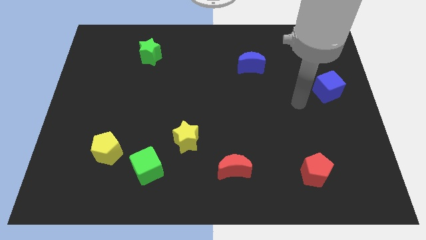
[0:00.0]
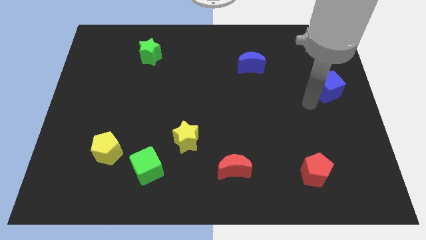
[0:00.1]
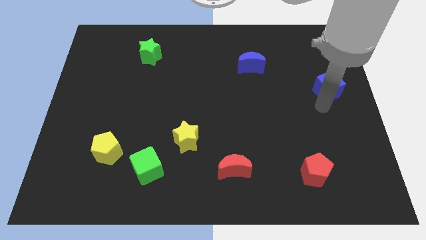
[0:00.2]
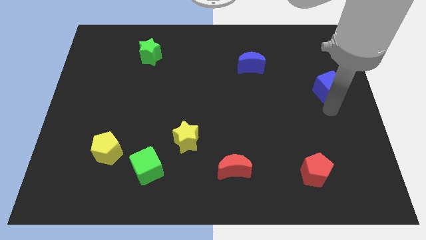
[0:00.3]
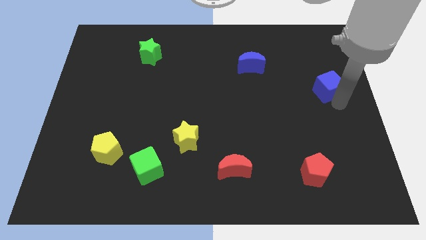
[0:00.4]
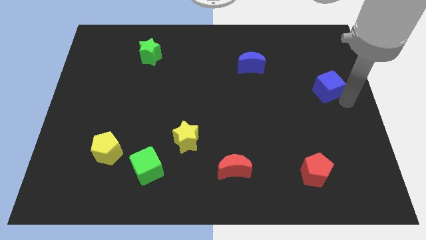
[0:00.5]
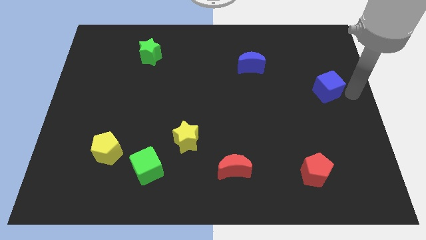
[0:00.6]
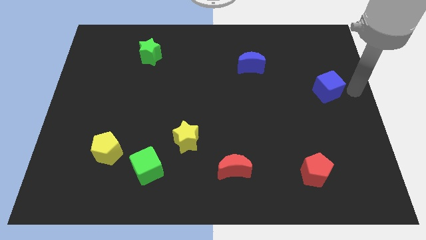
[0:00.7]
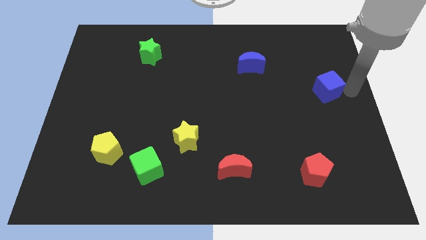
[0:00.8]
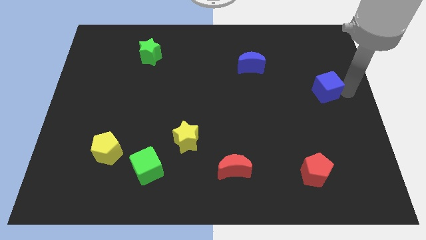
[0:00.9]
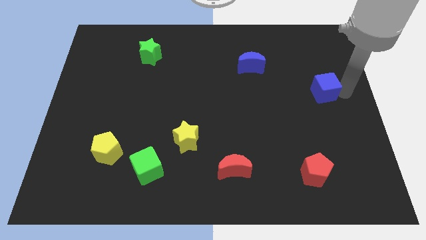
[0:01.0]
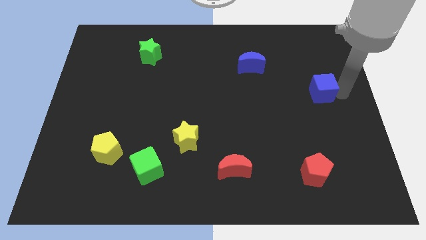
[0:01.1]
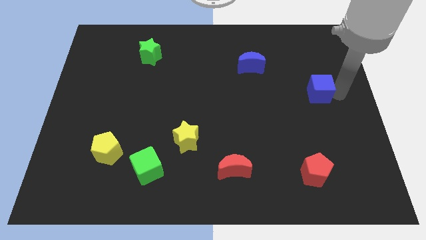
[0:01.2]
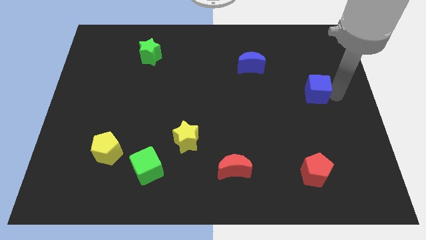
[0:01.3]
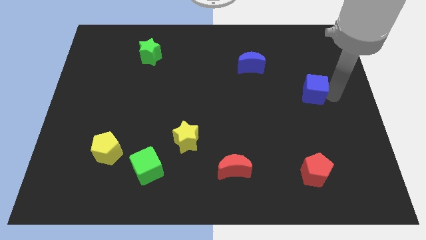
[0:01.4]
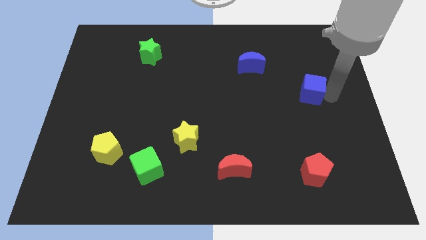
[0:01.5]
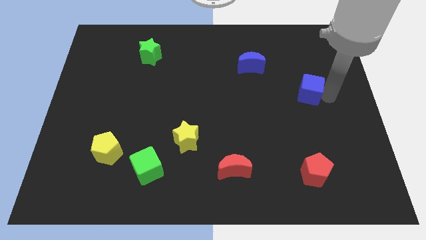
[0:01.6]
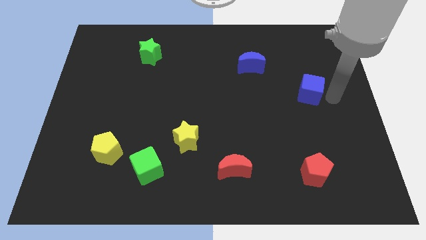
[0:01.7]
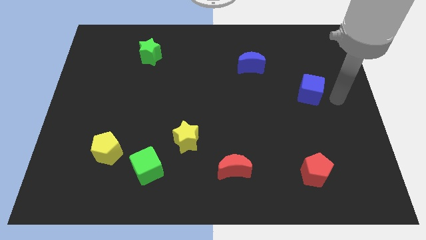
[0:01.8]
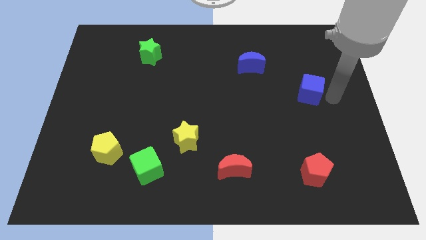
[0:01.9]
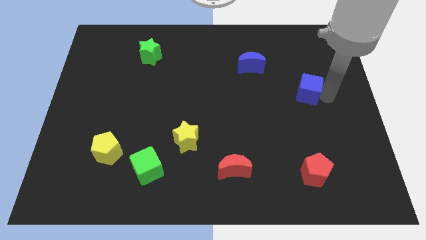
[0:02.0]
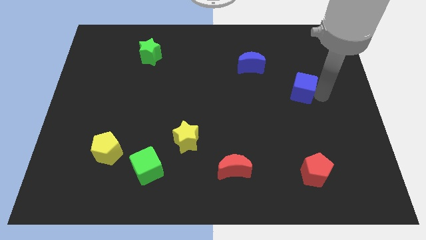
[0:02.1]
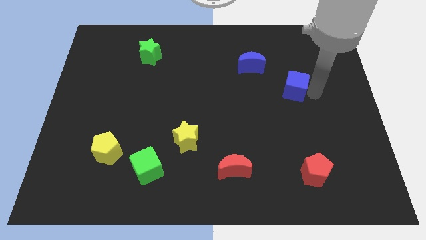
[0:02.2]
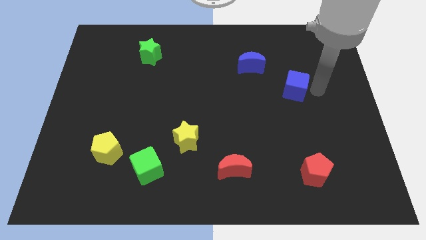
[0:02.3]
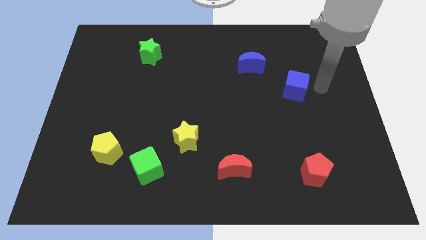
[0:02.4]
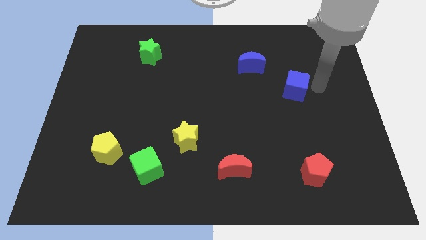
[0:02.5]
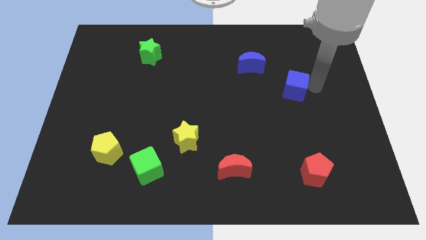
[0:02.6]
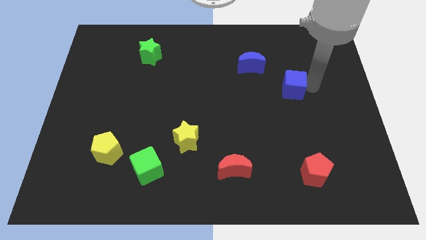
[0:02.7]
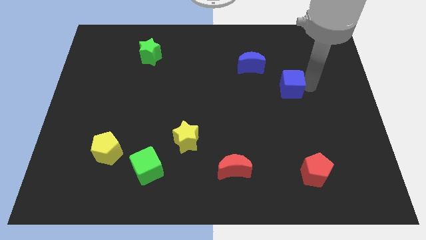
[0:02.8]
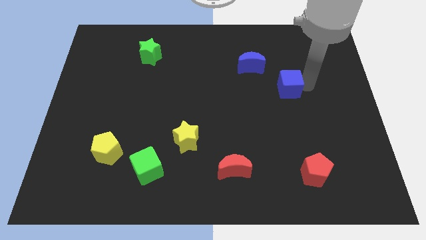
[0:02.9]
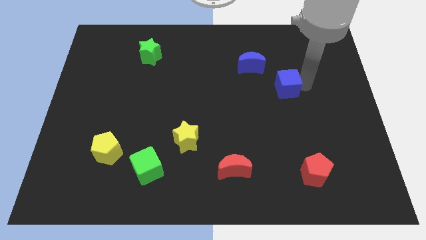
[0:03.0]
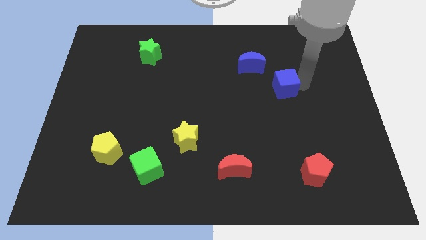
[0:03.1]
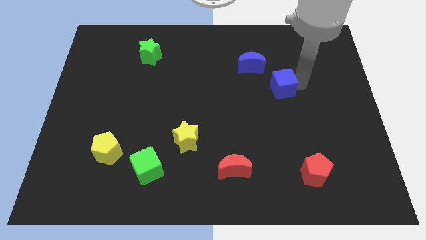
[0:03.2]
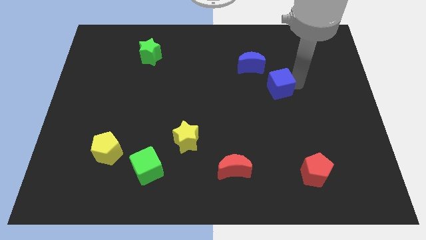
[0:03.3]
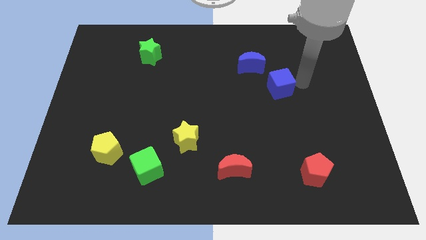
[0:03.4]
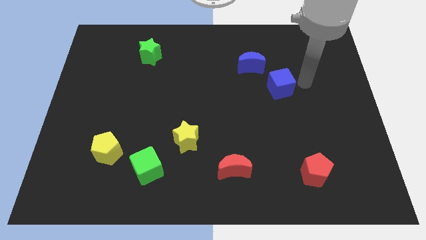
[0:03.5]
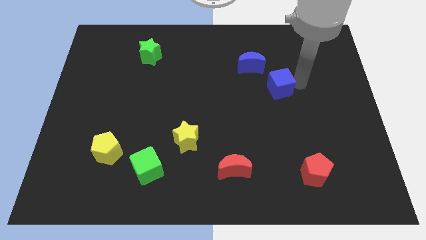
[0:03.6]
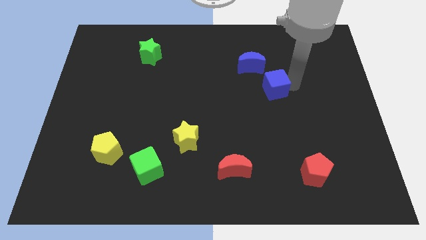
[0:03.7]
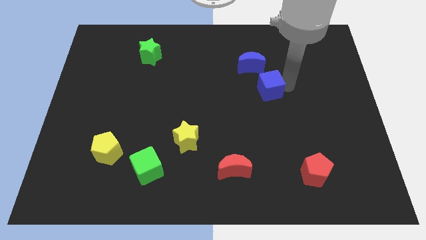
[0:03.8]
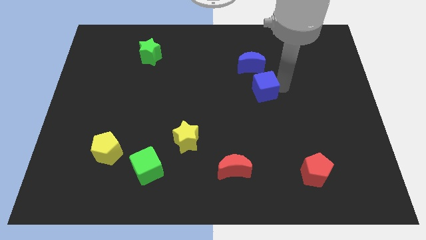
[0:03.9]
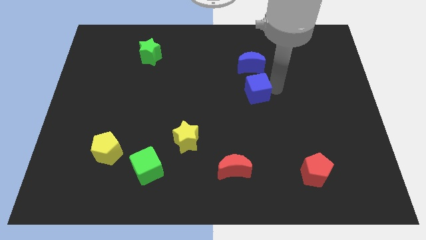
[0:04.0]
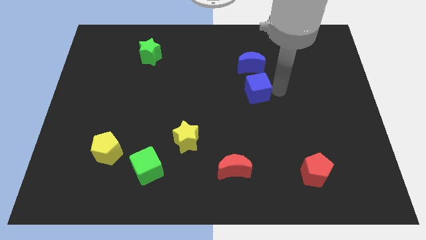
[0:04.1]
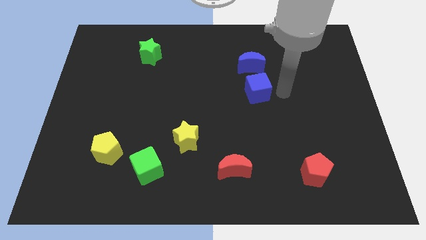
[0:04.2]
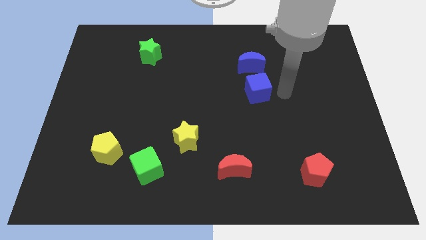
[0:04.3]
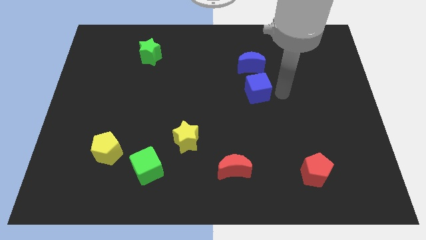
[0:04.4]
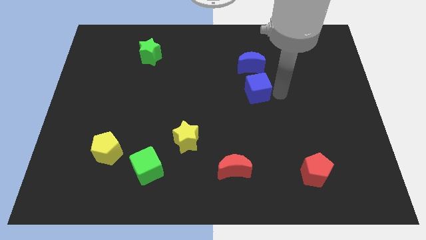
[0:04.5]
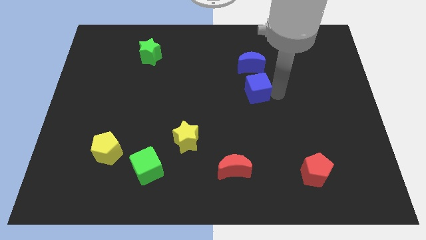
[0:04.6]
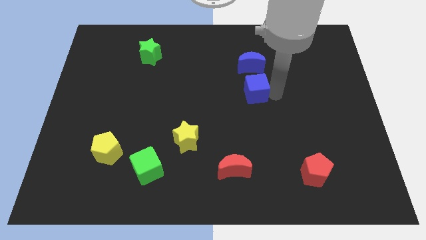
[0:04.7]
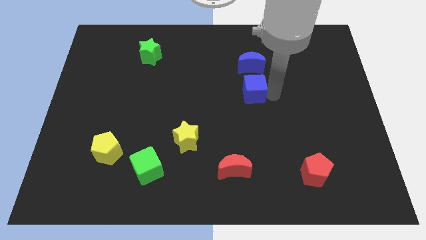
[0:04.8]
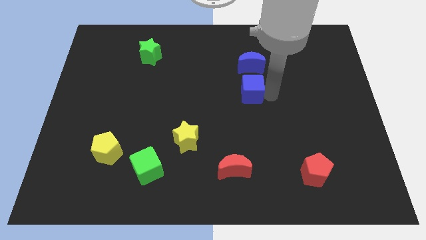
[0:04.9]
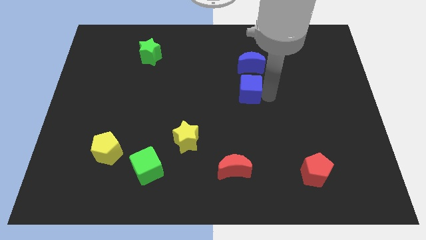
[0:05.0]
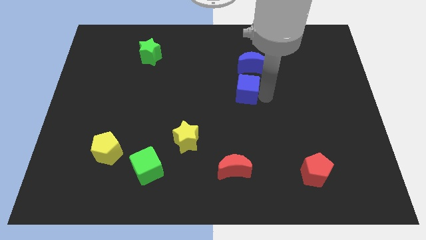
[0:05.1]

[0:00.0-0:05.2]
move the blue cube left

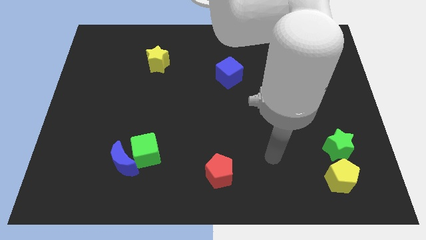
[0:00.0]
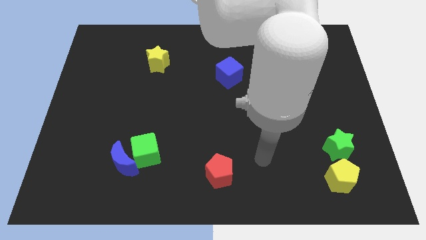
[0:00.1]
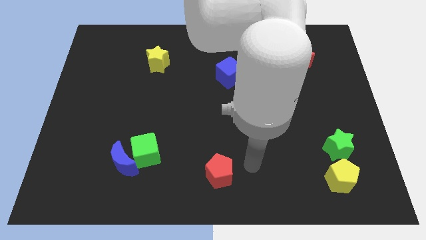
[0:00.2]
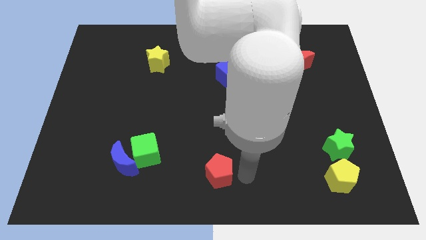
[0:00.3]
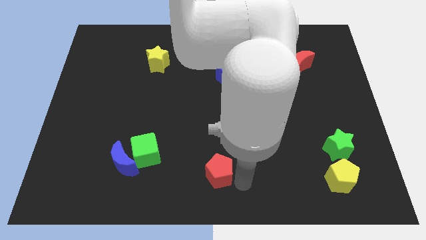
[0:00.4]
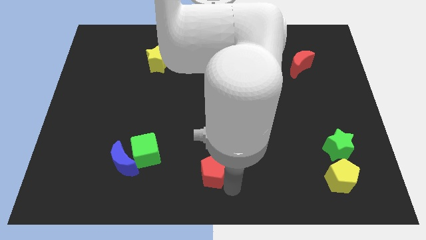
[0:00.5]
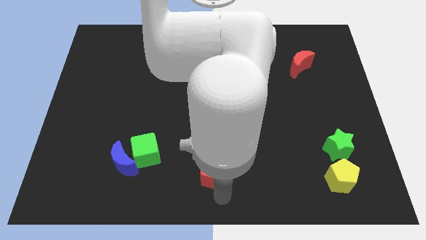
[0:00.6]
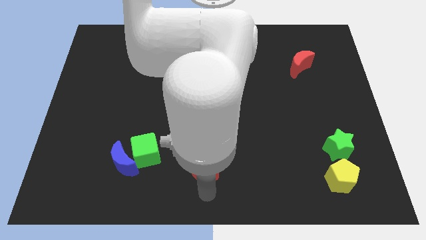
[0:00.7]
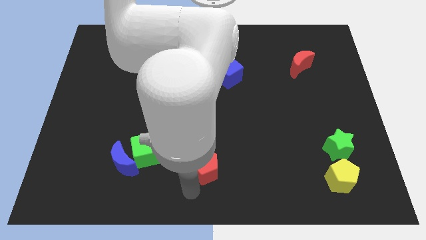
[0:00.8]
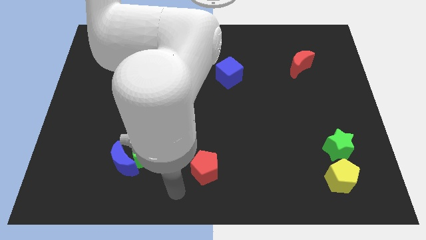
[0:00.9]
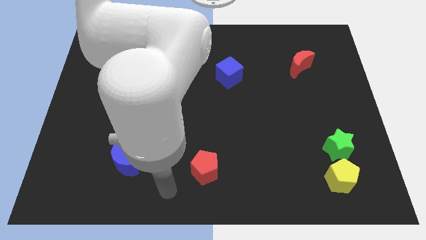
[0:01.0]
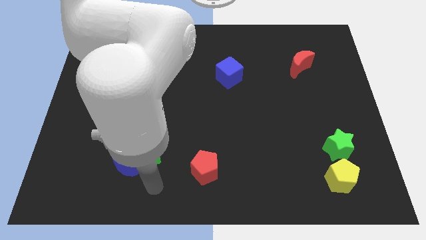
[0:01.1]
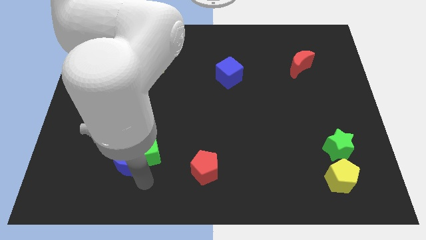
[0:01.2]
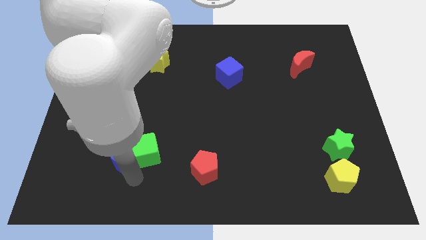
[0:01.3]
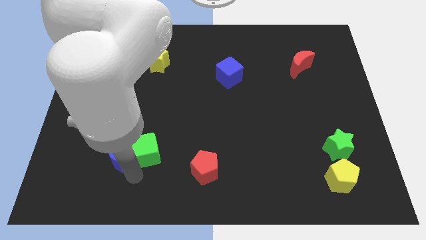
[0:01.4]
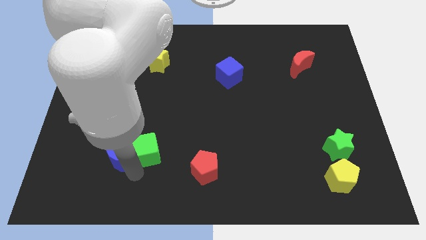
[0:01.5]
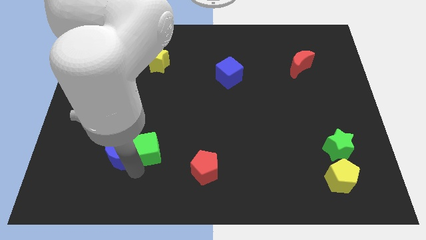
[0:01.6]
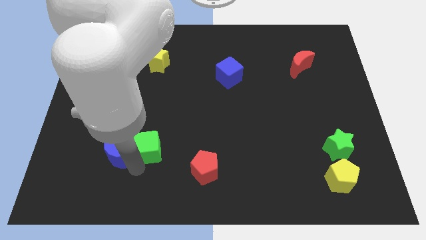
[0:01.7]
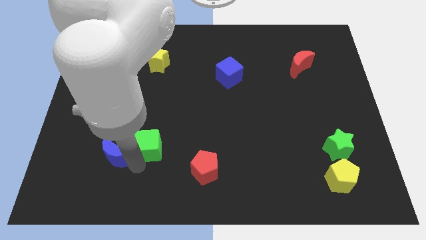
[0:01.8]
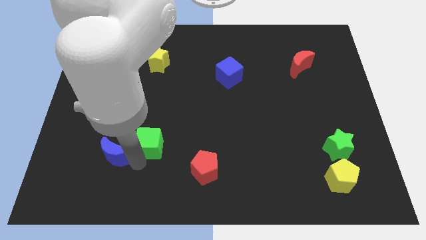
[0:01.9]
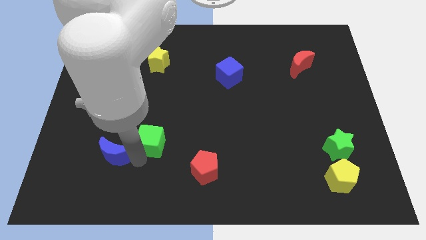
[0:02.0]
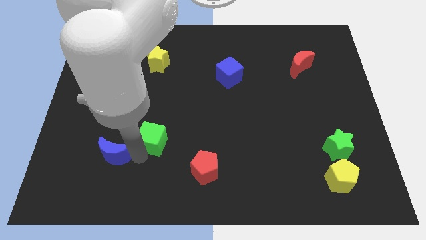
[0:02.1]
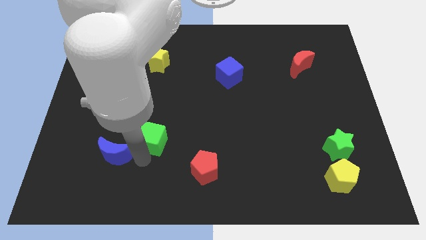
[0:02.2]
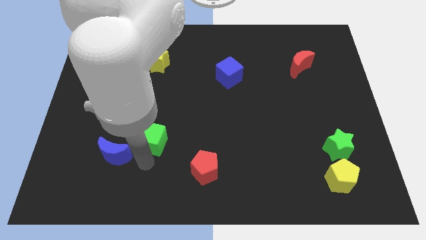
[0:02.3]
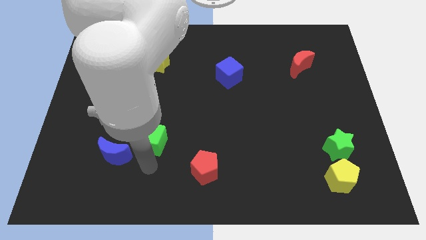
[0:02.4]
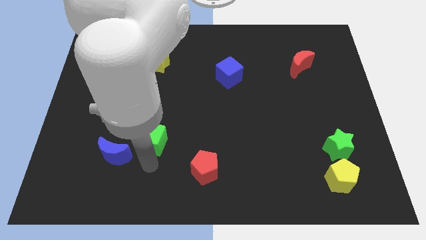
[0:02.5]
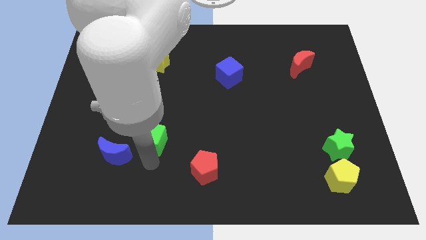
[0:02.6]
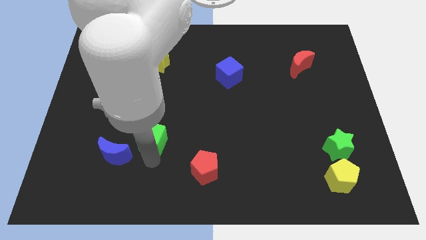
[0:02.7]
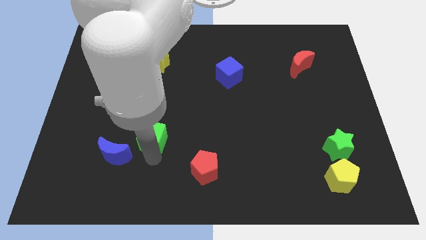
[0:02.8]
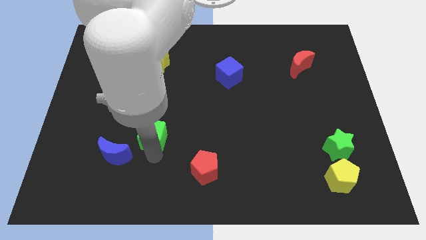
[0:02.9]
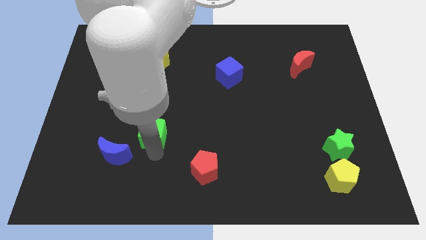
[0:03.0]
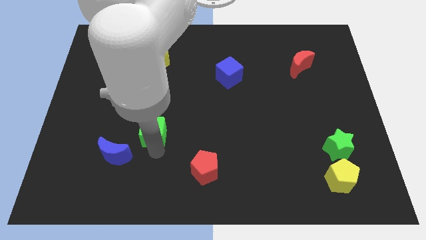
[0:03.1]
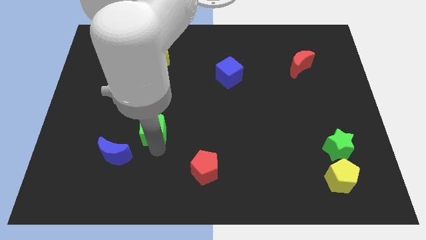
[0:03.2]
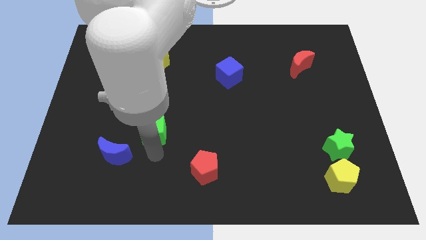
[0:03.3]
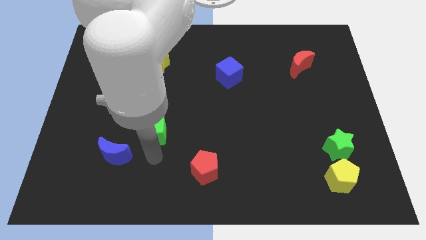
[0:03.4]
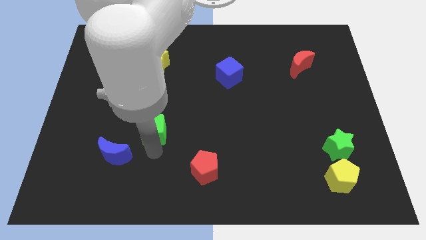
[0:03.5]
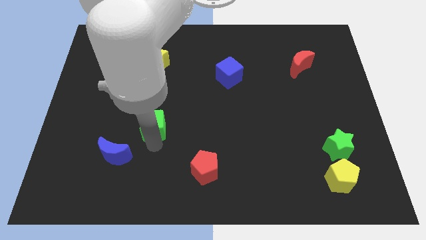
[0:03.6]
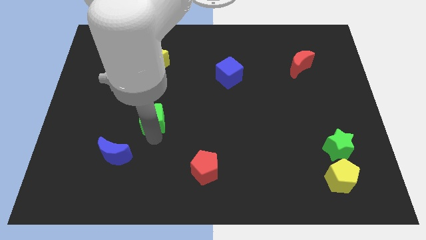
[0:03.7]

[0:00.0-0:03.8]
push the green cube a bit up
